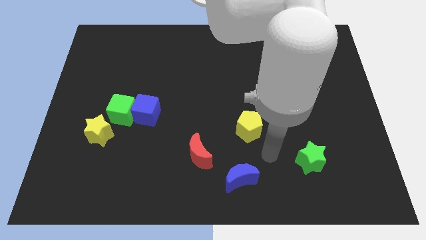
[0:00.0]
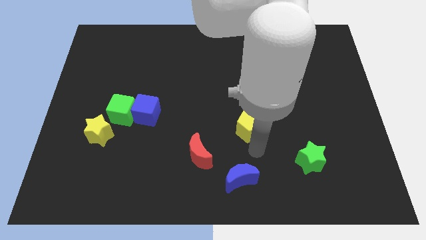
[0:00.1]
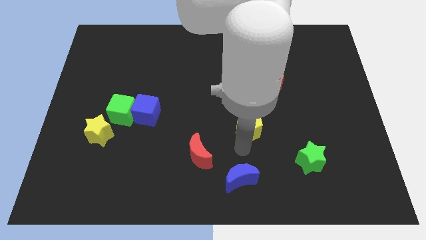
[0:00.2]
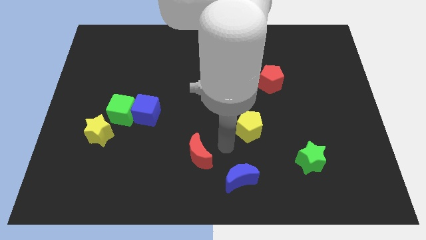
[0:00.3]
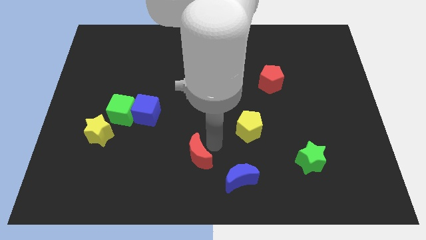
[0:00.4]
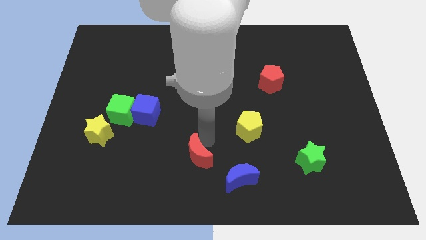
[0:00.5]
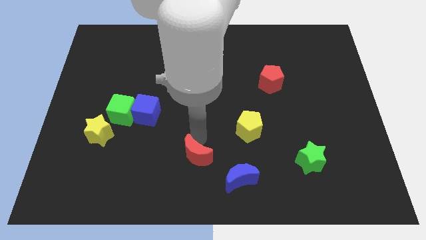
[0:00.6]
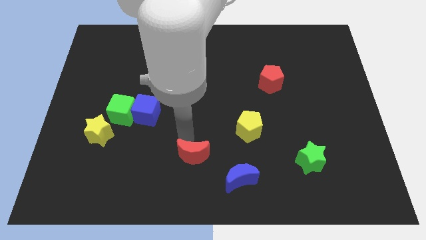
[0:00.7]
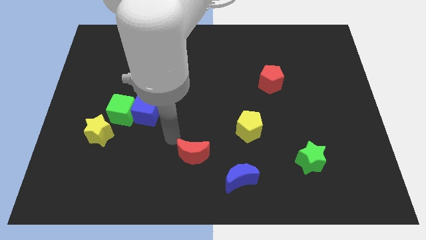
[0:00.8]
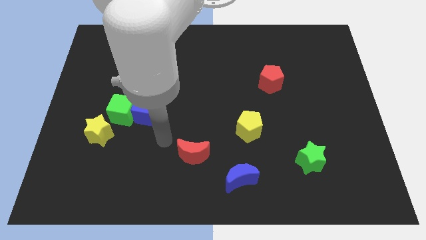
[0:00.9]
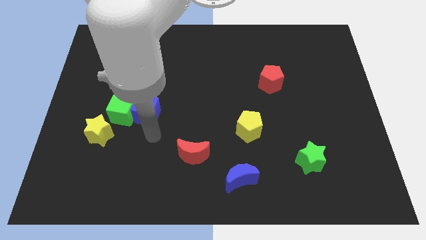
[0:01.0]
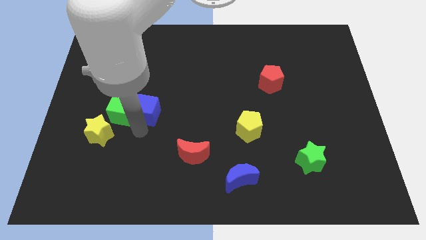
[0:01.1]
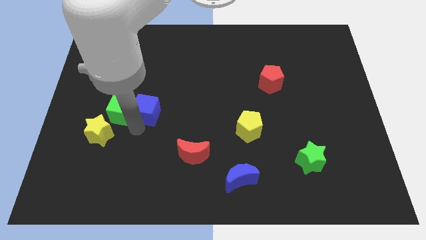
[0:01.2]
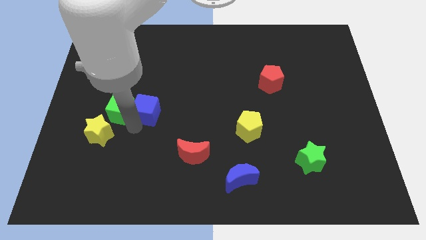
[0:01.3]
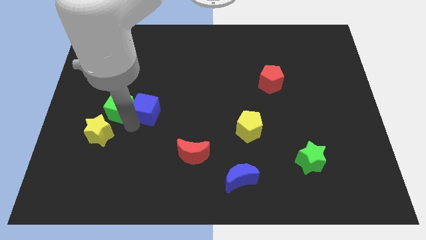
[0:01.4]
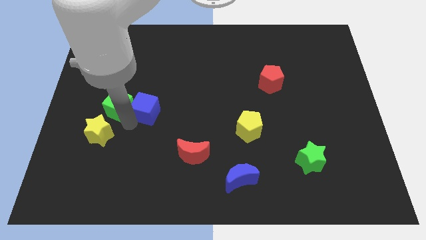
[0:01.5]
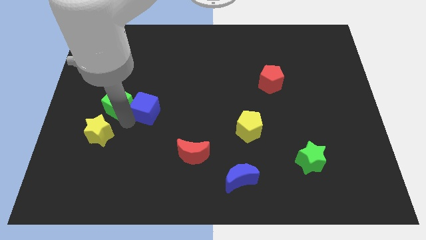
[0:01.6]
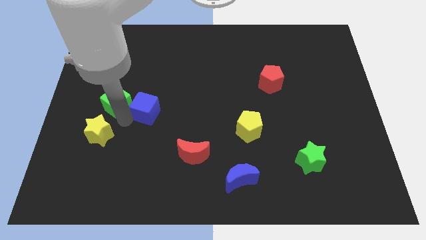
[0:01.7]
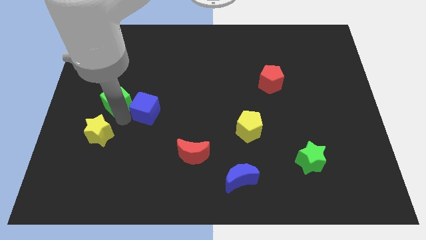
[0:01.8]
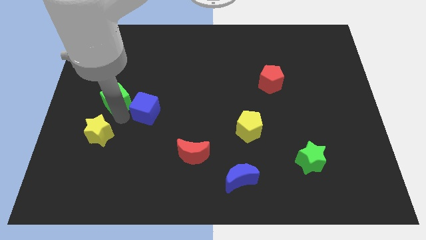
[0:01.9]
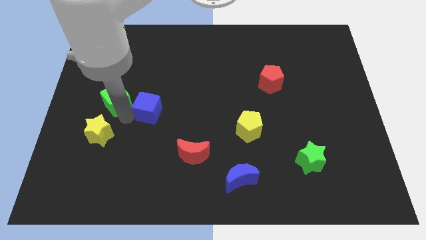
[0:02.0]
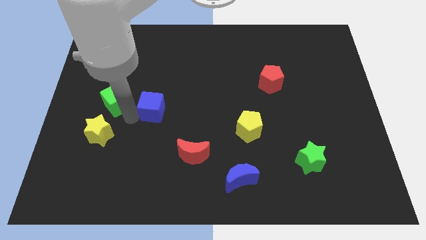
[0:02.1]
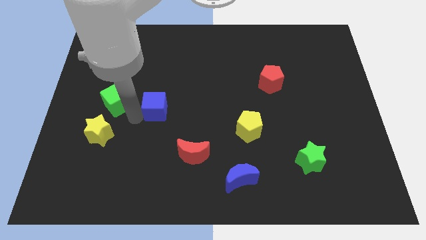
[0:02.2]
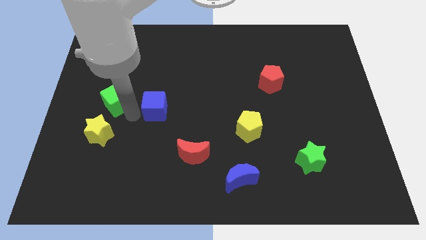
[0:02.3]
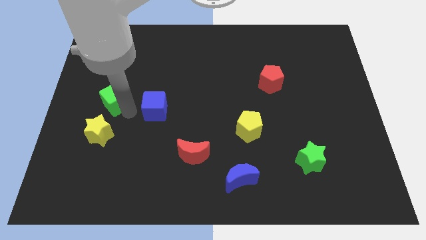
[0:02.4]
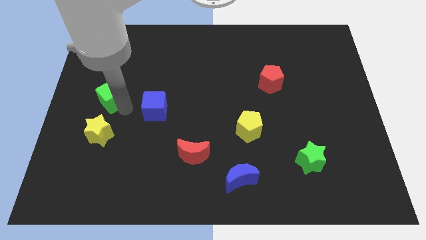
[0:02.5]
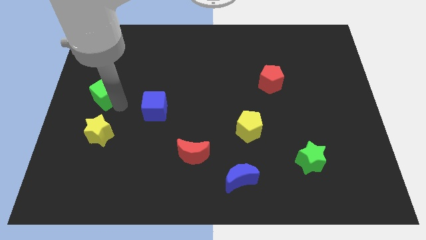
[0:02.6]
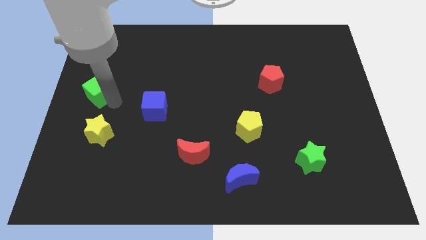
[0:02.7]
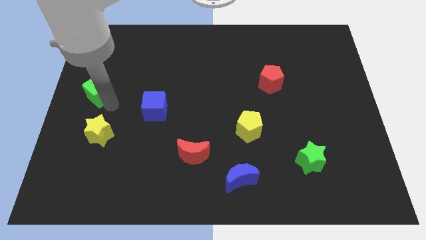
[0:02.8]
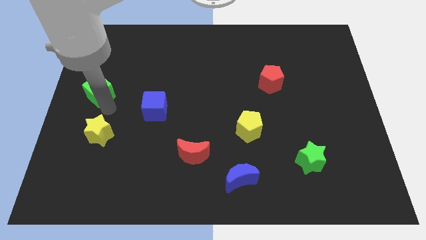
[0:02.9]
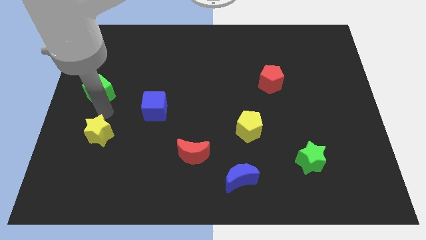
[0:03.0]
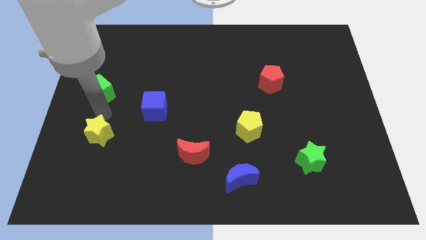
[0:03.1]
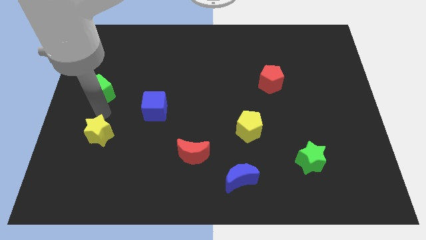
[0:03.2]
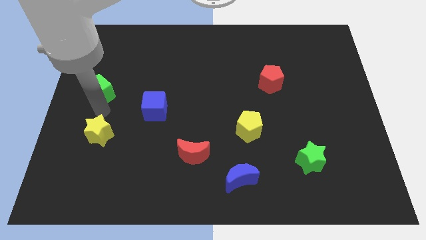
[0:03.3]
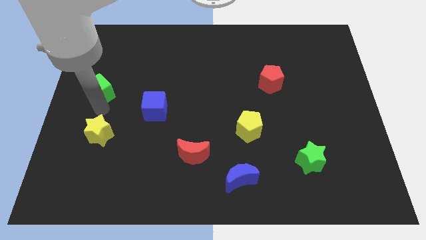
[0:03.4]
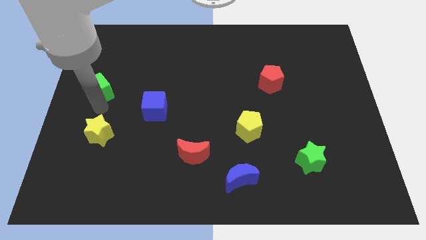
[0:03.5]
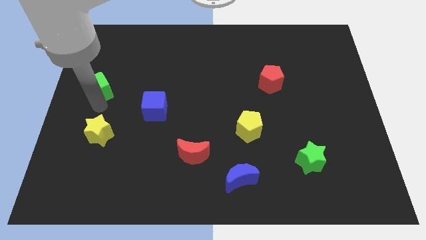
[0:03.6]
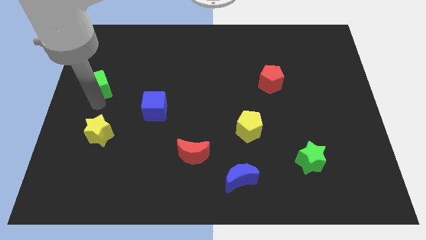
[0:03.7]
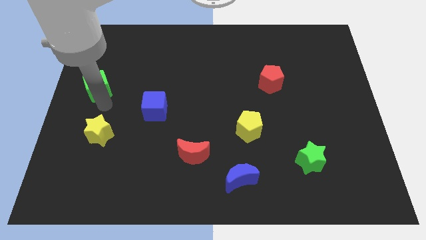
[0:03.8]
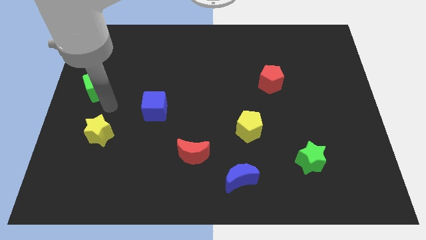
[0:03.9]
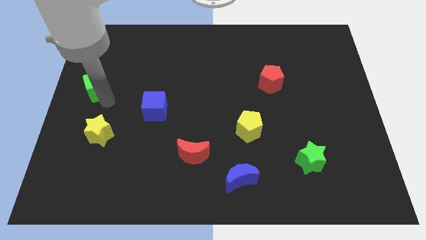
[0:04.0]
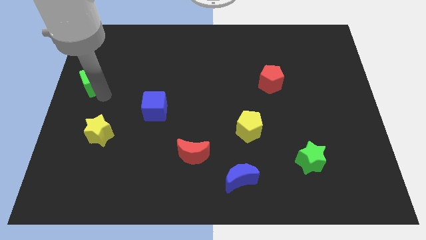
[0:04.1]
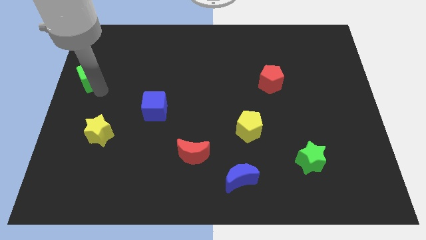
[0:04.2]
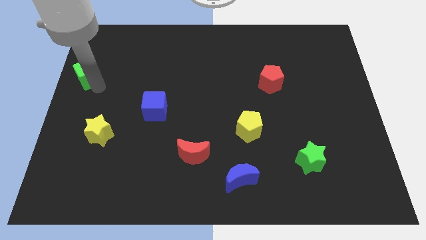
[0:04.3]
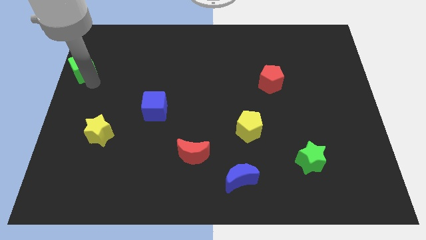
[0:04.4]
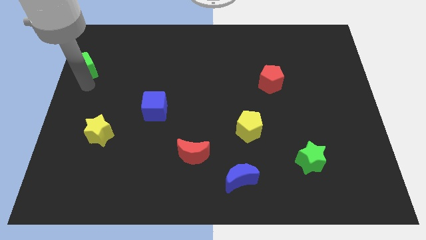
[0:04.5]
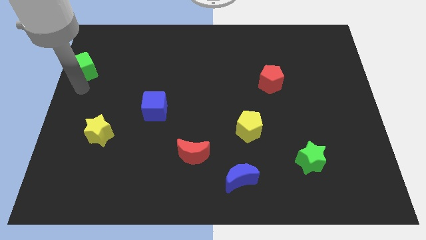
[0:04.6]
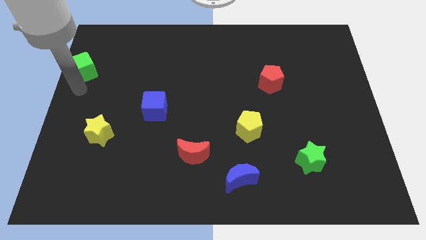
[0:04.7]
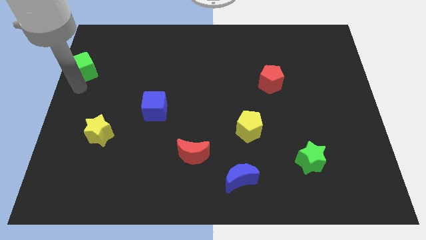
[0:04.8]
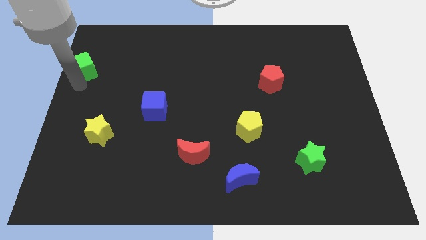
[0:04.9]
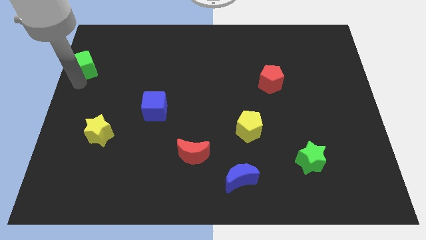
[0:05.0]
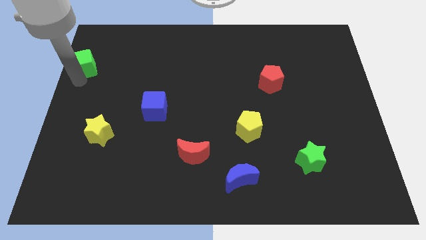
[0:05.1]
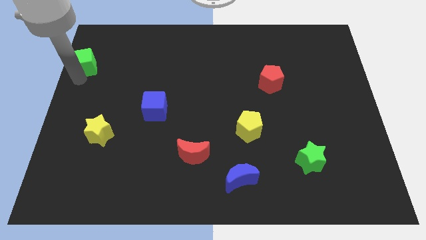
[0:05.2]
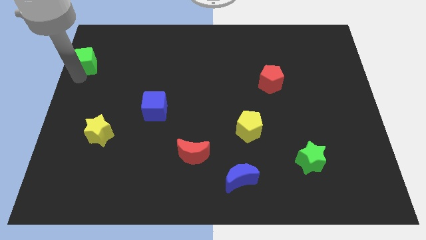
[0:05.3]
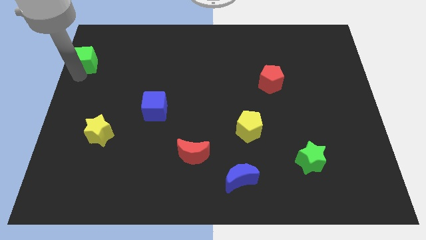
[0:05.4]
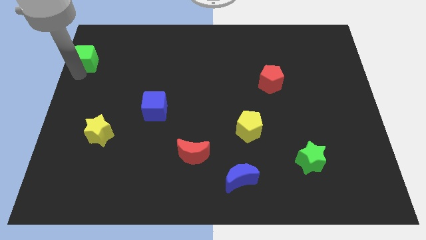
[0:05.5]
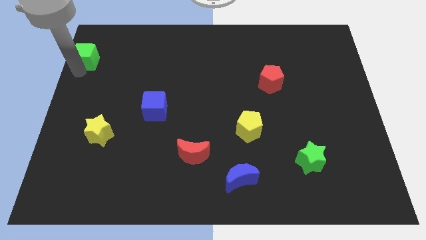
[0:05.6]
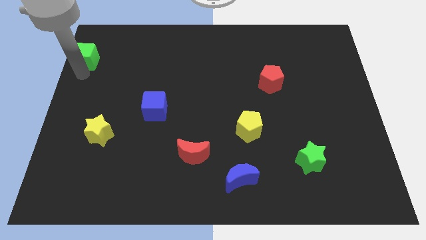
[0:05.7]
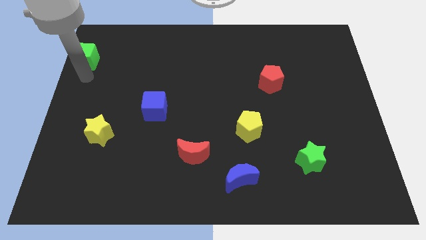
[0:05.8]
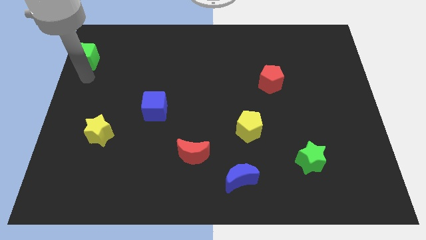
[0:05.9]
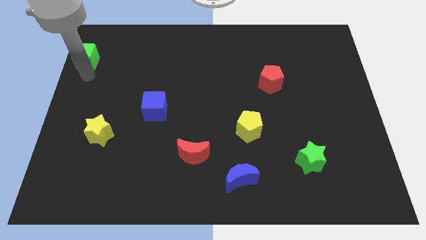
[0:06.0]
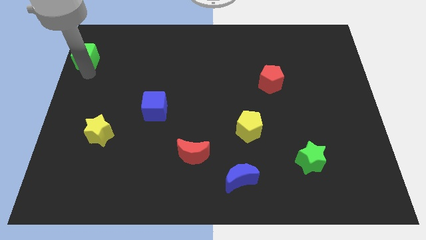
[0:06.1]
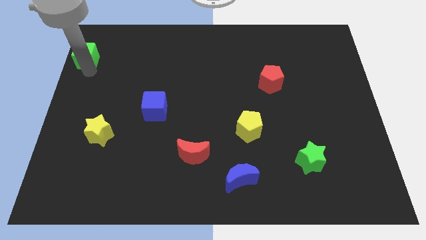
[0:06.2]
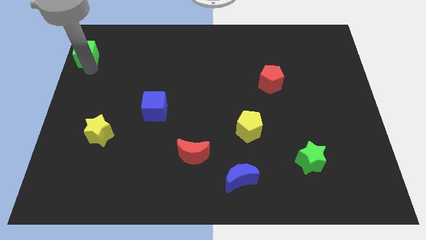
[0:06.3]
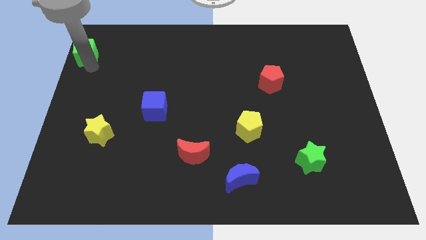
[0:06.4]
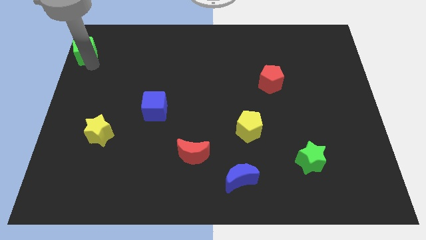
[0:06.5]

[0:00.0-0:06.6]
put the green cube to the top left corner

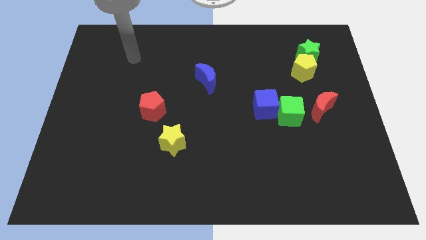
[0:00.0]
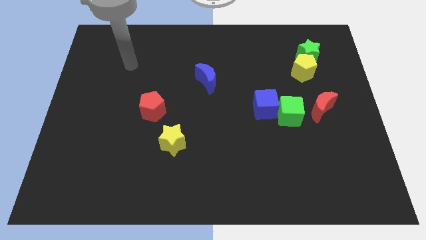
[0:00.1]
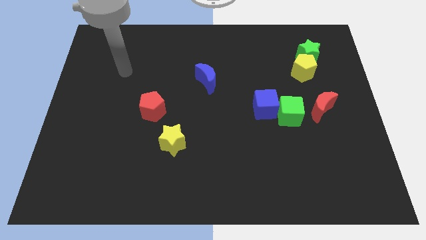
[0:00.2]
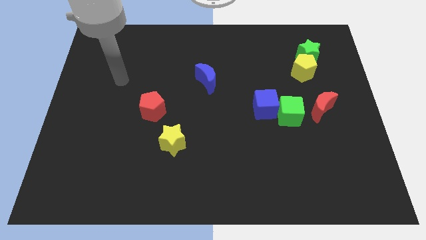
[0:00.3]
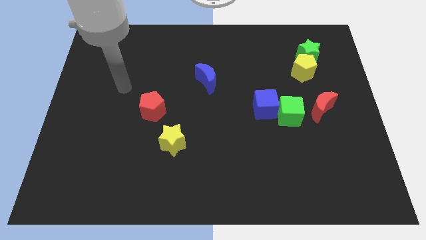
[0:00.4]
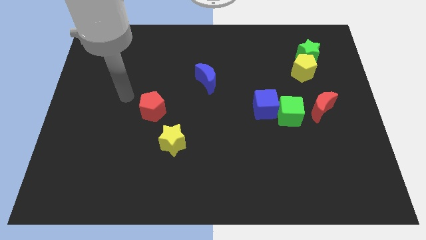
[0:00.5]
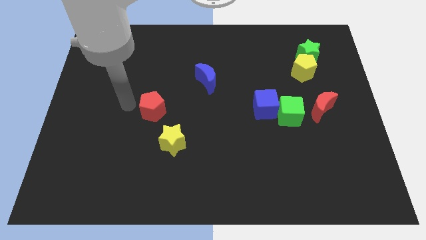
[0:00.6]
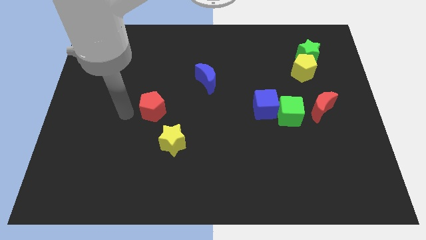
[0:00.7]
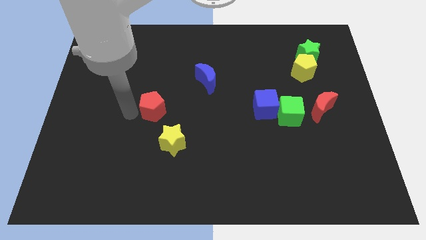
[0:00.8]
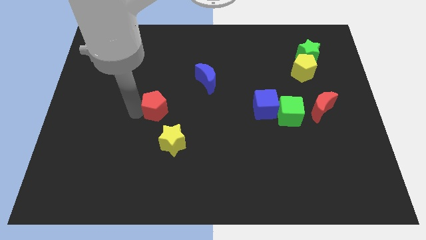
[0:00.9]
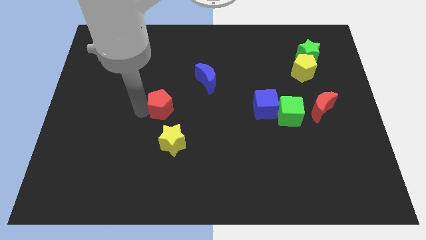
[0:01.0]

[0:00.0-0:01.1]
put the red pentagon to the center of the board
